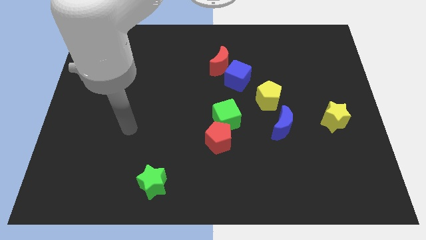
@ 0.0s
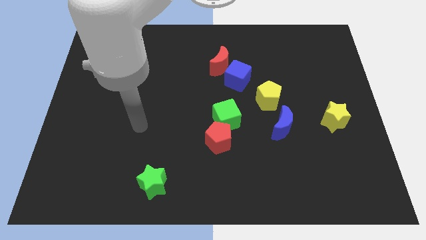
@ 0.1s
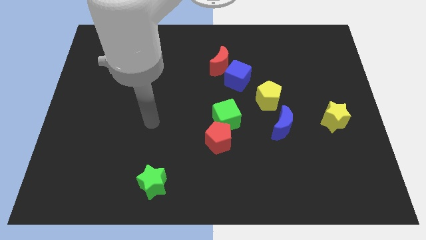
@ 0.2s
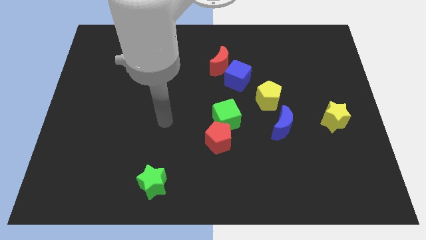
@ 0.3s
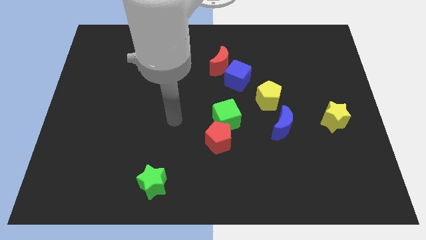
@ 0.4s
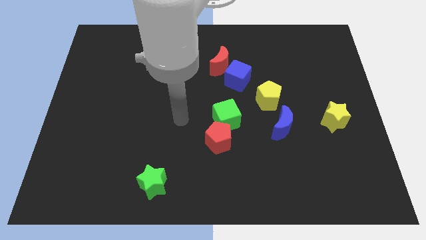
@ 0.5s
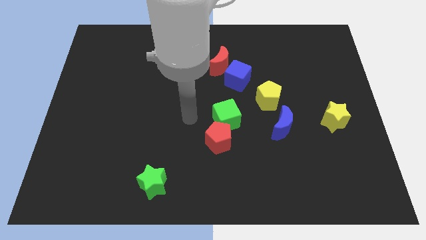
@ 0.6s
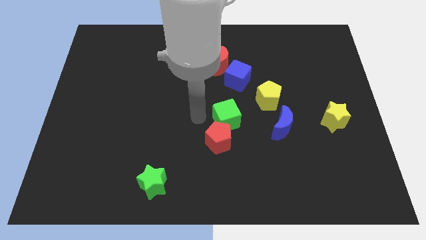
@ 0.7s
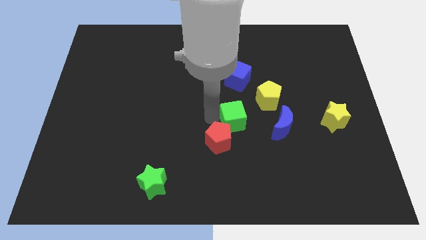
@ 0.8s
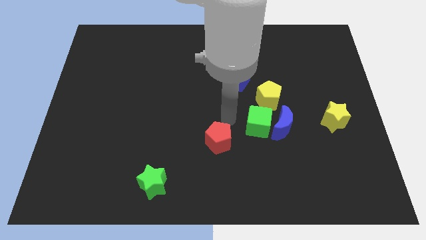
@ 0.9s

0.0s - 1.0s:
pull the red pentagon apart from the green cube

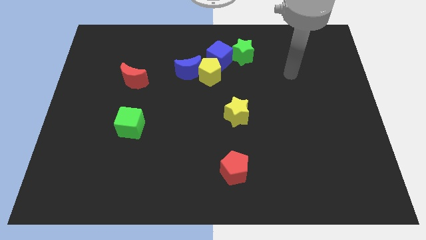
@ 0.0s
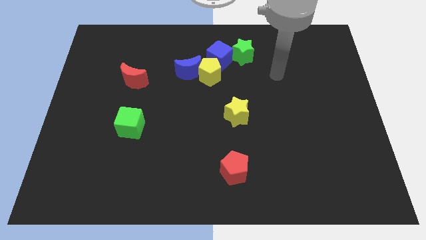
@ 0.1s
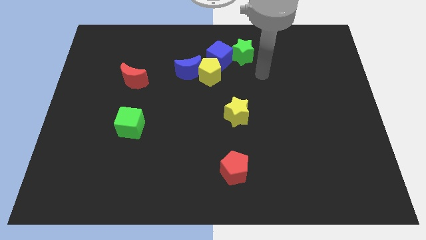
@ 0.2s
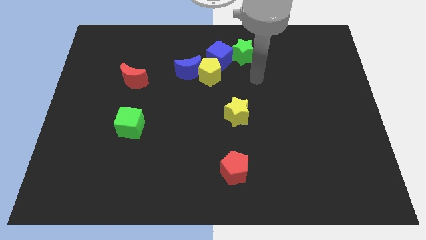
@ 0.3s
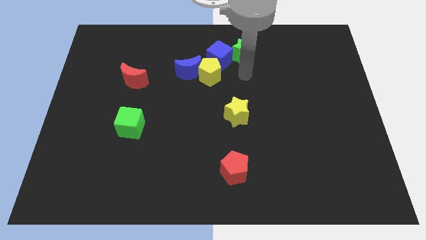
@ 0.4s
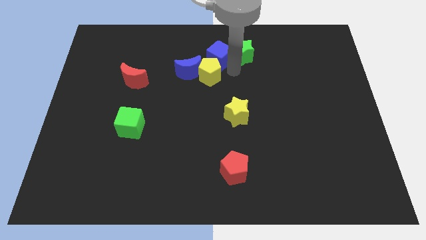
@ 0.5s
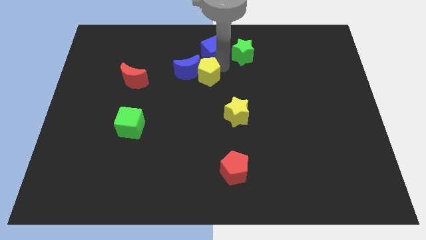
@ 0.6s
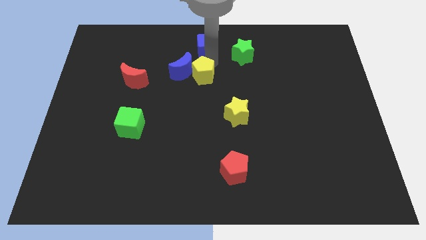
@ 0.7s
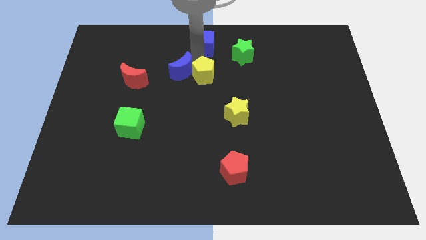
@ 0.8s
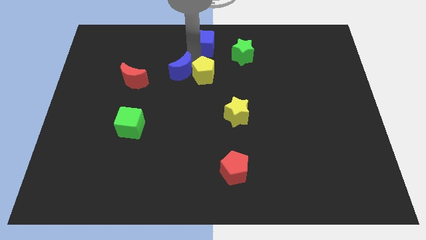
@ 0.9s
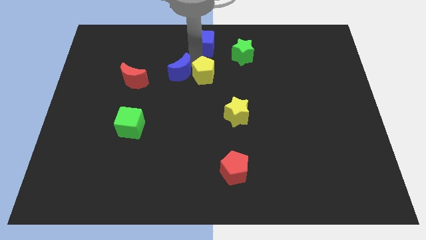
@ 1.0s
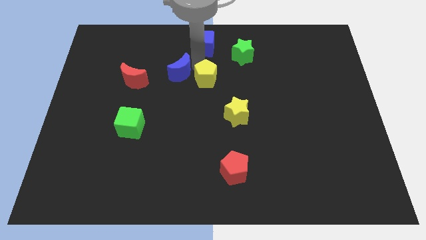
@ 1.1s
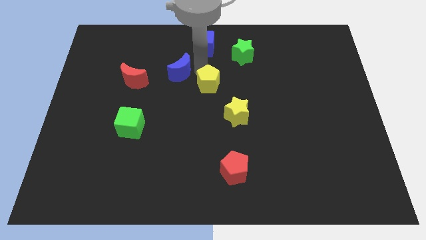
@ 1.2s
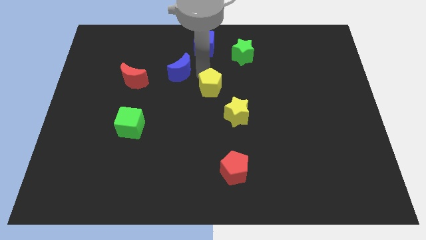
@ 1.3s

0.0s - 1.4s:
move the yellow pentagon away from the blue moon and blue cube

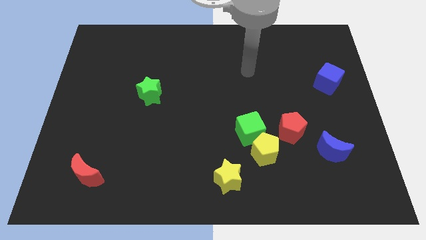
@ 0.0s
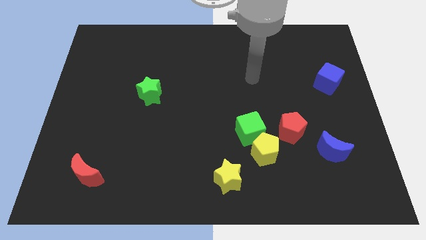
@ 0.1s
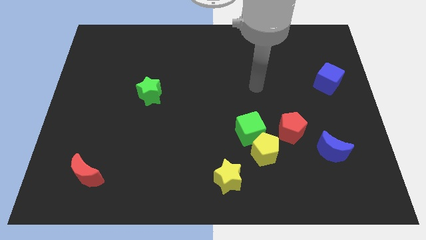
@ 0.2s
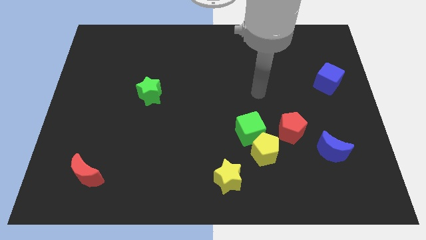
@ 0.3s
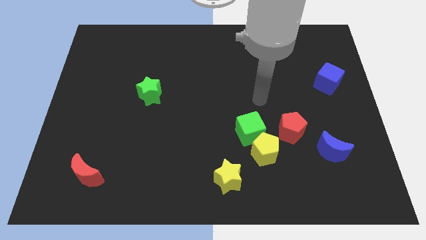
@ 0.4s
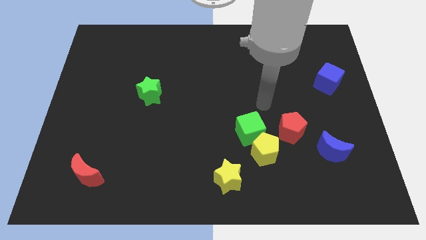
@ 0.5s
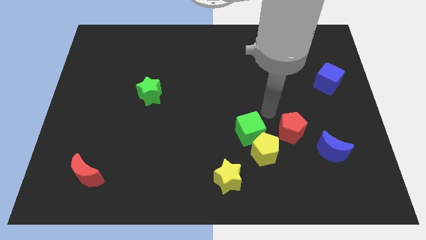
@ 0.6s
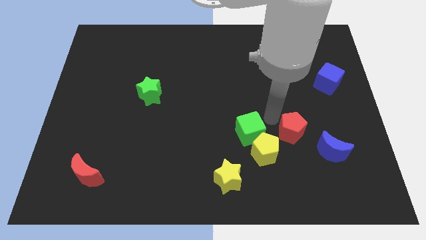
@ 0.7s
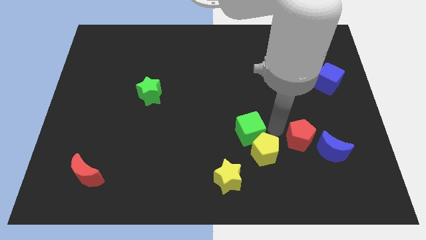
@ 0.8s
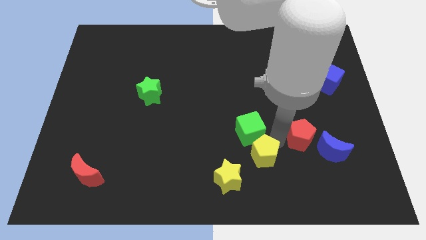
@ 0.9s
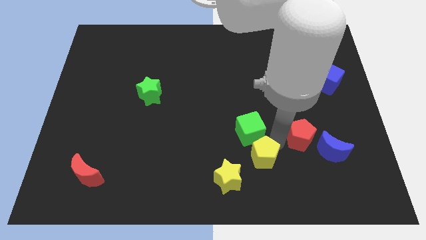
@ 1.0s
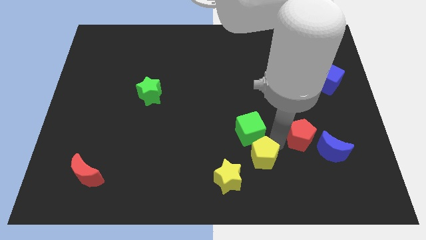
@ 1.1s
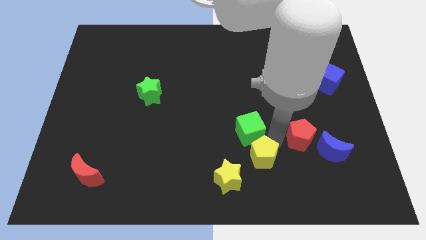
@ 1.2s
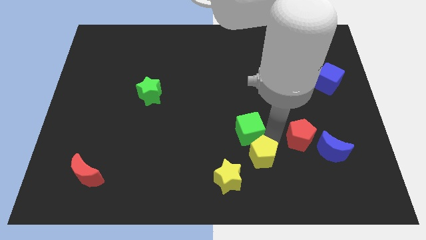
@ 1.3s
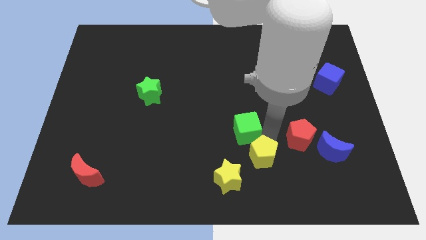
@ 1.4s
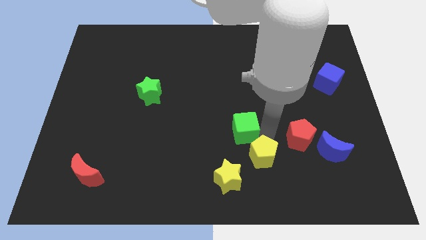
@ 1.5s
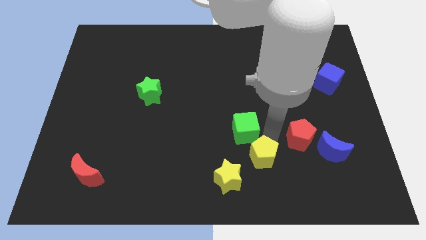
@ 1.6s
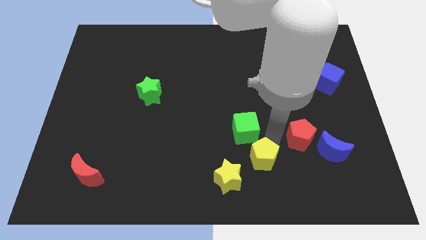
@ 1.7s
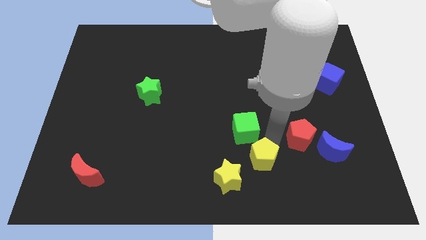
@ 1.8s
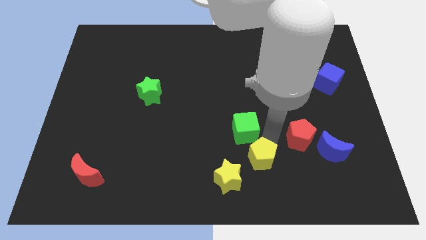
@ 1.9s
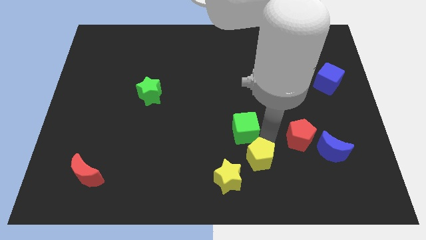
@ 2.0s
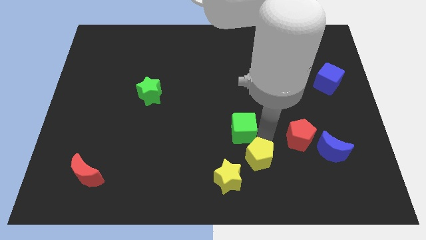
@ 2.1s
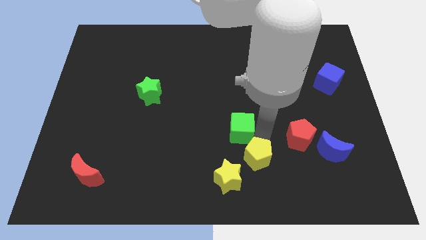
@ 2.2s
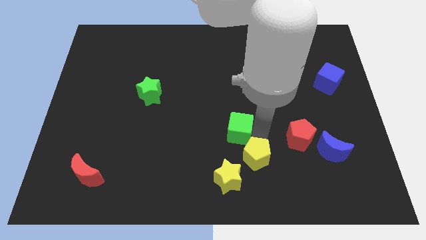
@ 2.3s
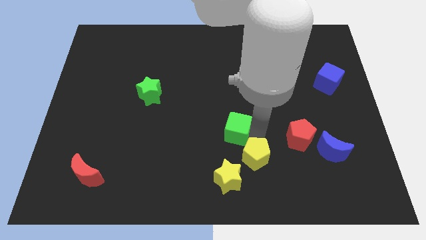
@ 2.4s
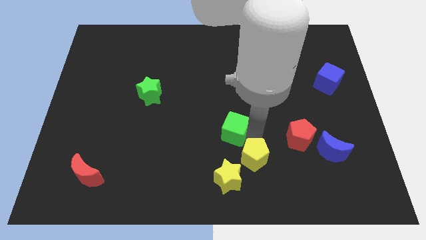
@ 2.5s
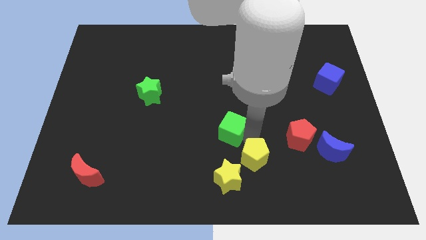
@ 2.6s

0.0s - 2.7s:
separate the green cube from the yellow pentagon and red pentagon

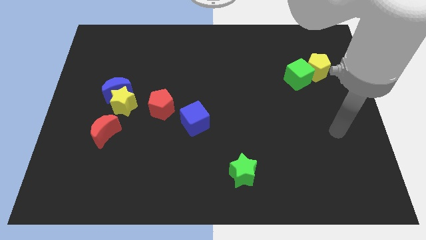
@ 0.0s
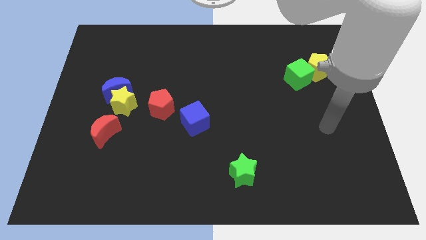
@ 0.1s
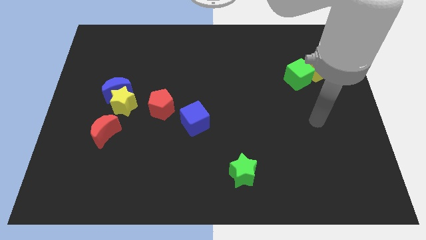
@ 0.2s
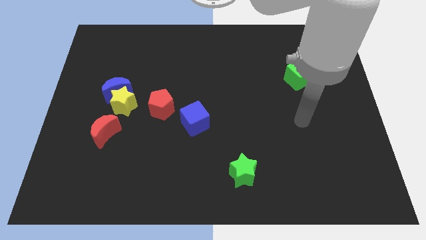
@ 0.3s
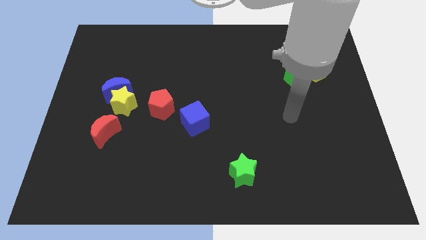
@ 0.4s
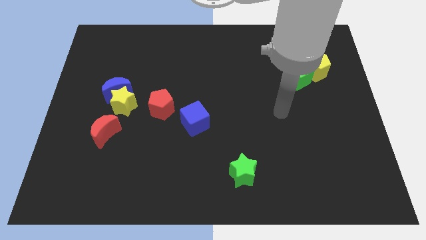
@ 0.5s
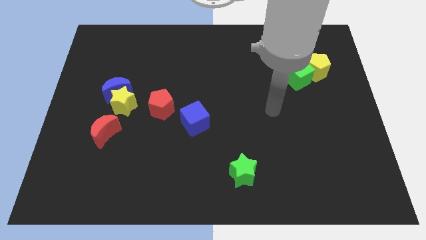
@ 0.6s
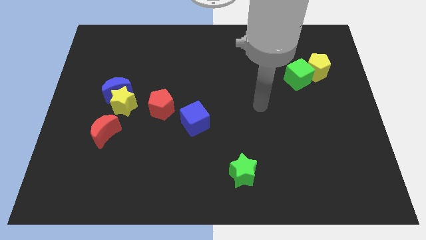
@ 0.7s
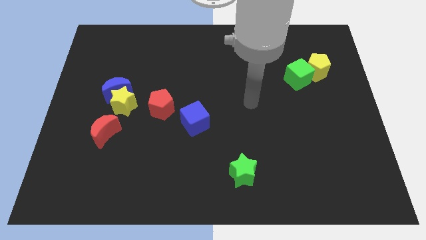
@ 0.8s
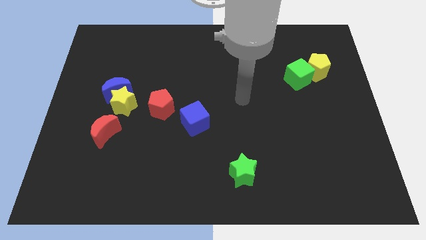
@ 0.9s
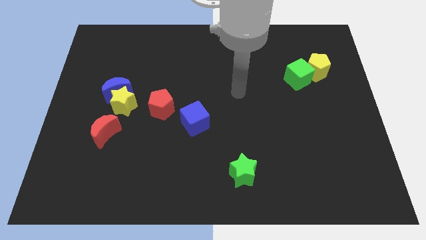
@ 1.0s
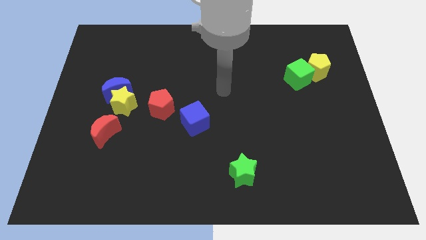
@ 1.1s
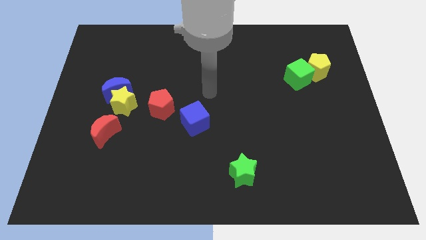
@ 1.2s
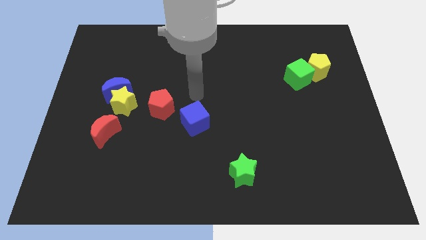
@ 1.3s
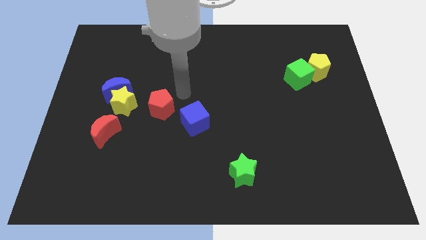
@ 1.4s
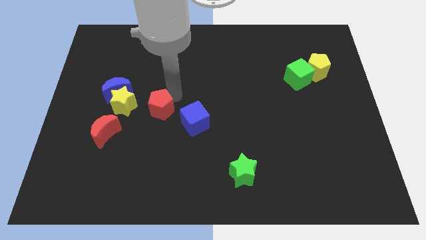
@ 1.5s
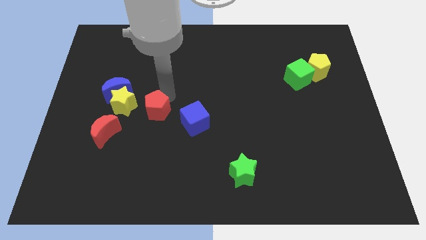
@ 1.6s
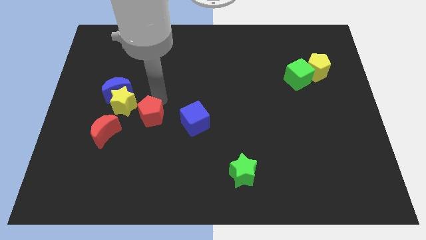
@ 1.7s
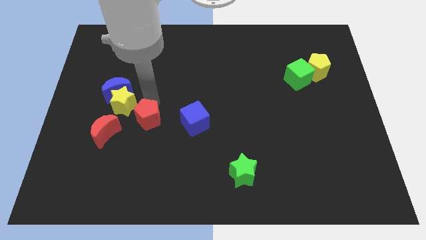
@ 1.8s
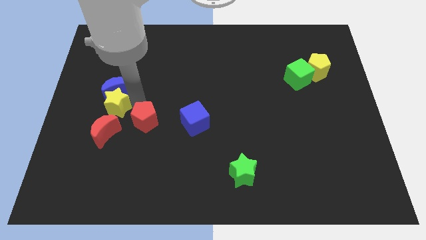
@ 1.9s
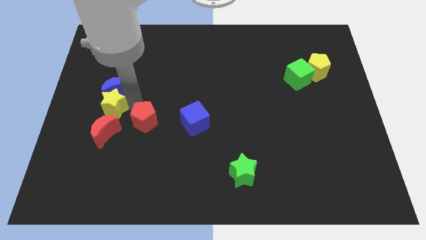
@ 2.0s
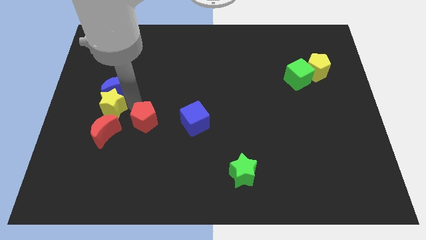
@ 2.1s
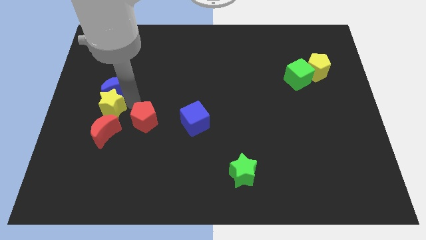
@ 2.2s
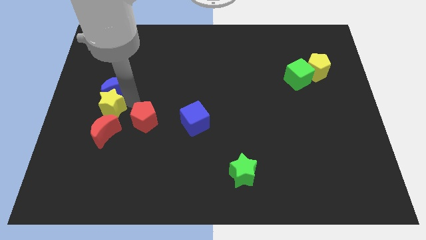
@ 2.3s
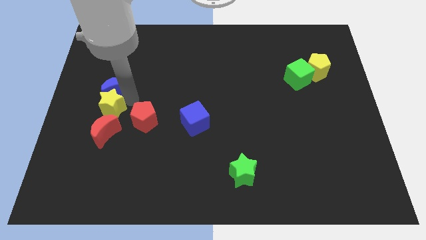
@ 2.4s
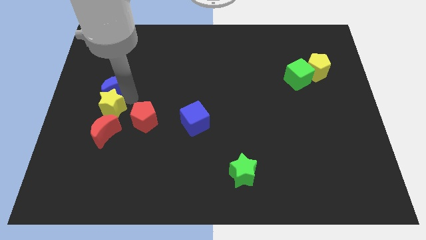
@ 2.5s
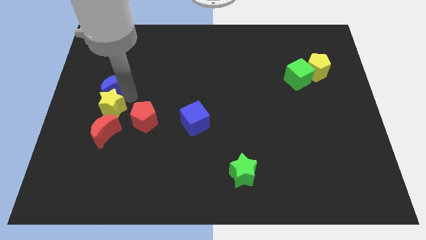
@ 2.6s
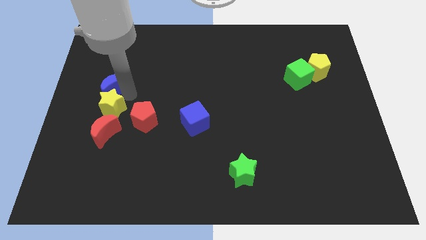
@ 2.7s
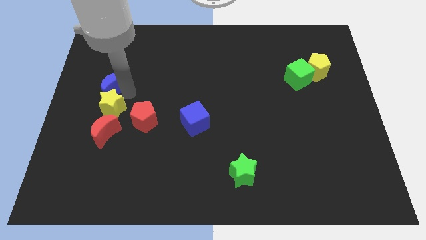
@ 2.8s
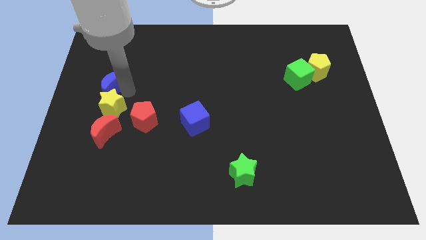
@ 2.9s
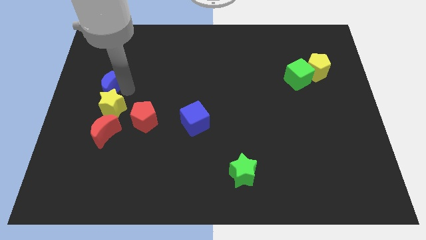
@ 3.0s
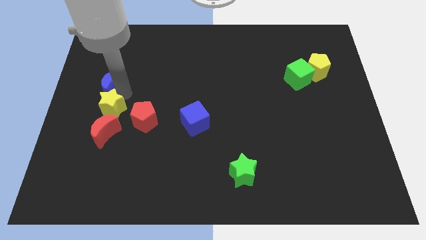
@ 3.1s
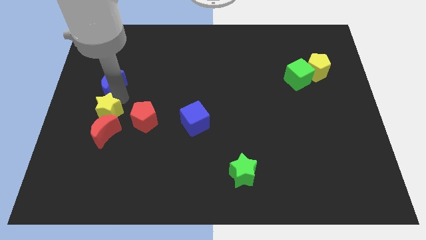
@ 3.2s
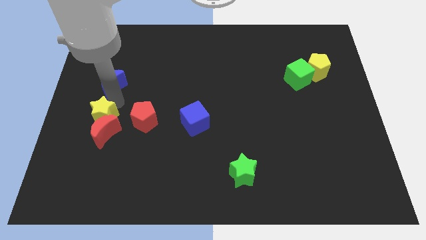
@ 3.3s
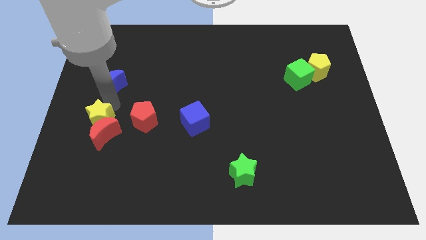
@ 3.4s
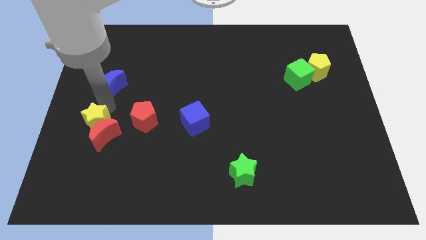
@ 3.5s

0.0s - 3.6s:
pull the blue moon apart from the yellow star

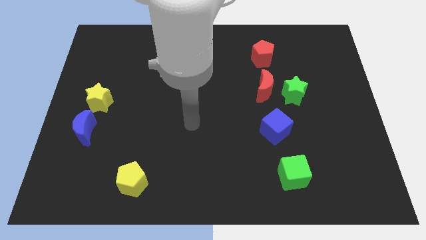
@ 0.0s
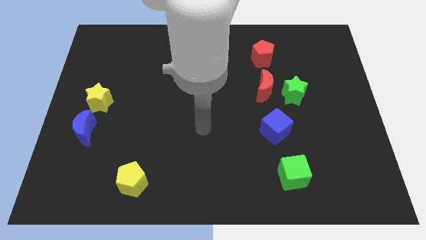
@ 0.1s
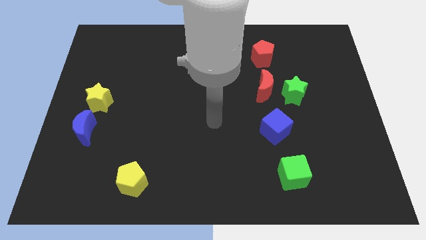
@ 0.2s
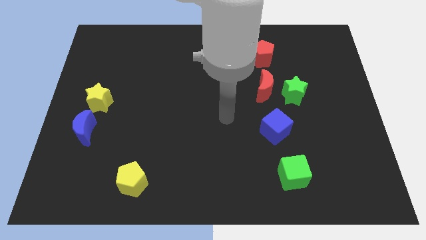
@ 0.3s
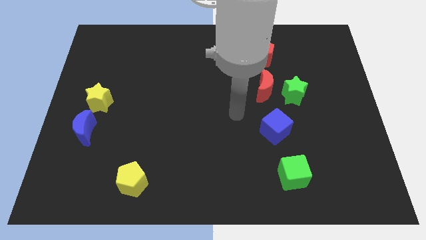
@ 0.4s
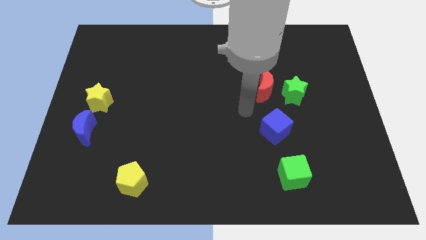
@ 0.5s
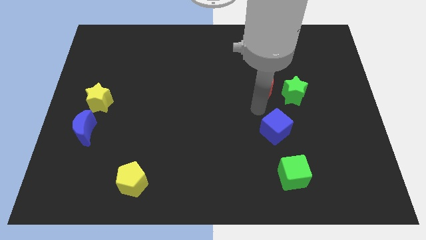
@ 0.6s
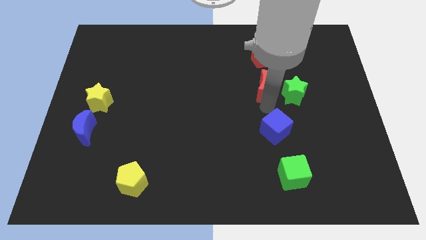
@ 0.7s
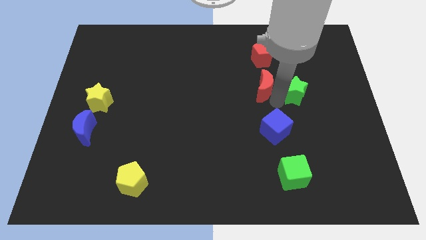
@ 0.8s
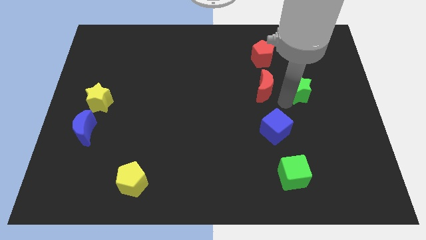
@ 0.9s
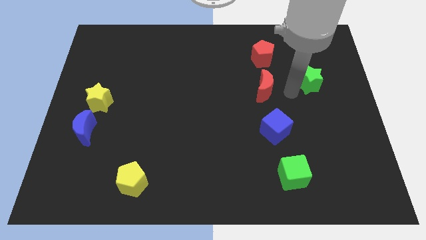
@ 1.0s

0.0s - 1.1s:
pull the red moon apart from the green star
